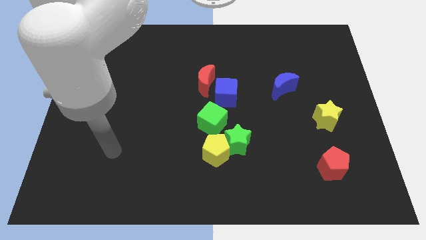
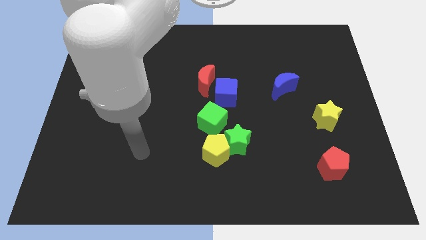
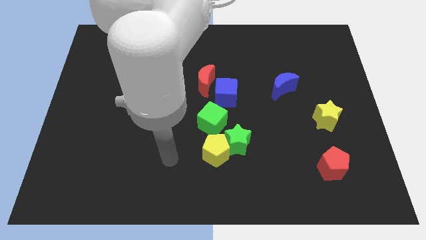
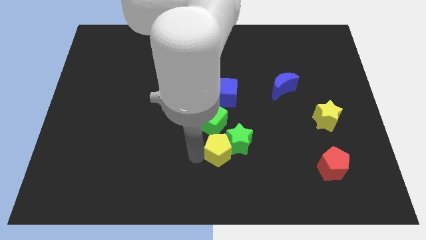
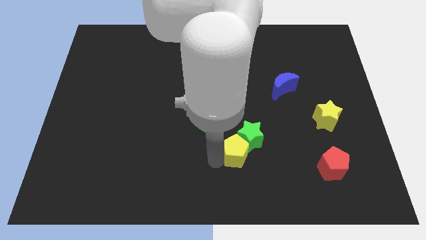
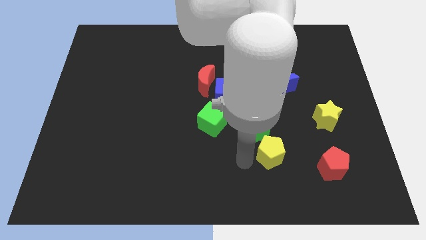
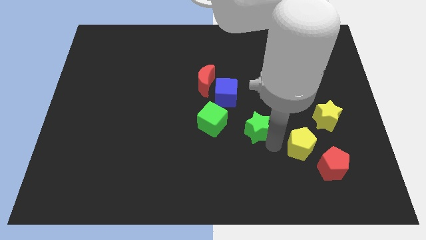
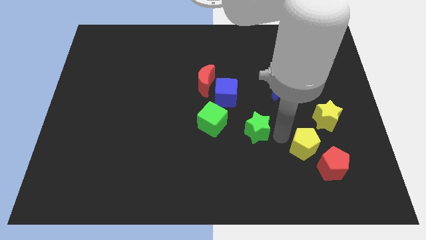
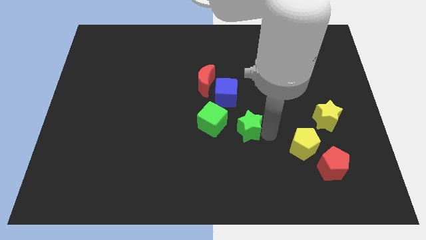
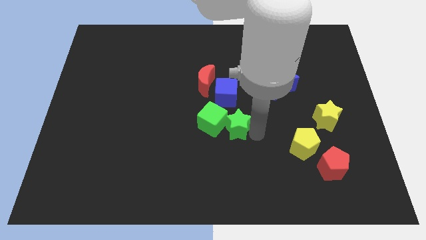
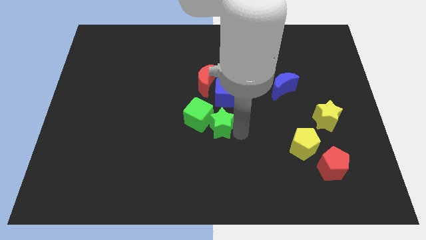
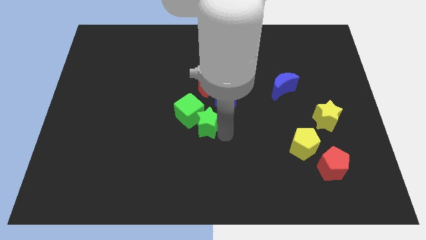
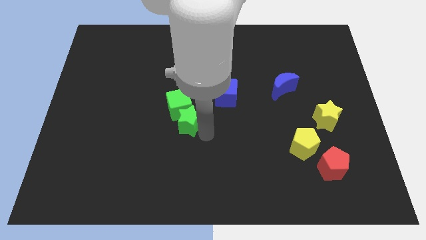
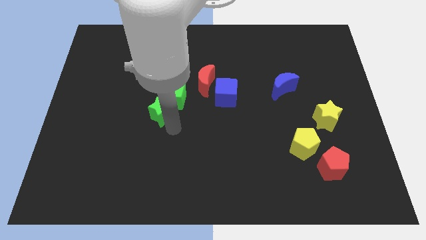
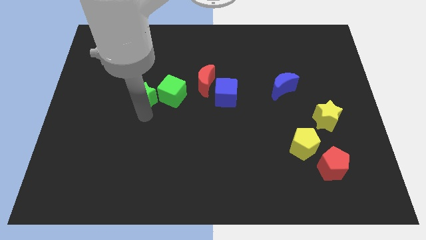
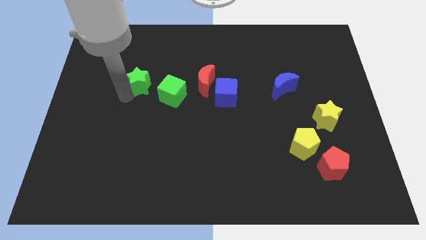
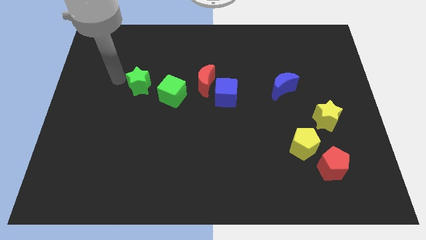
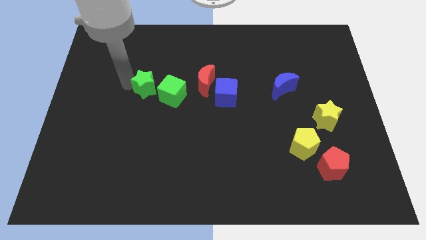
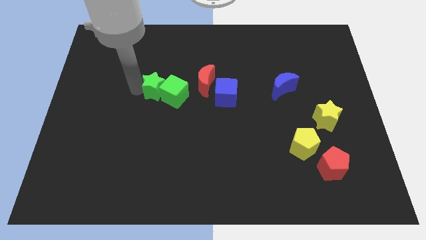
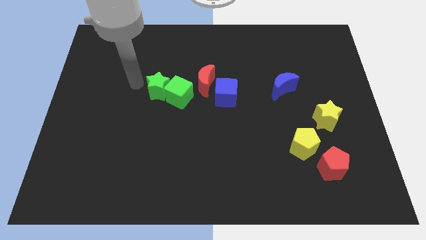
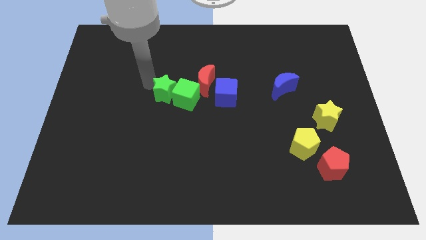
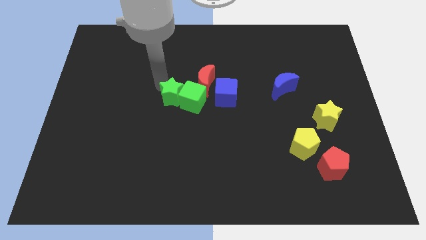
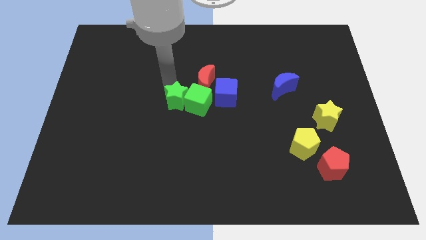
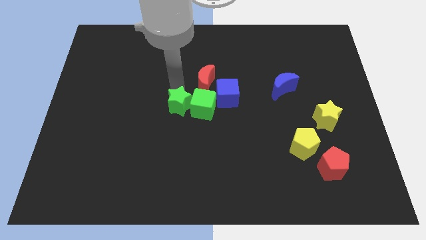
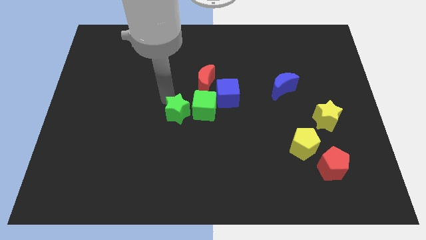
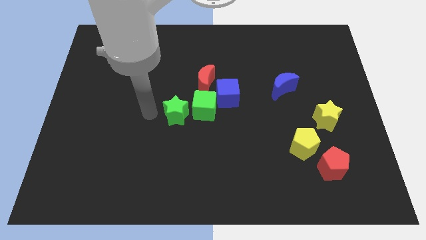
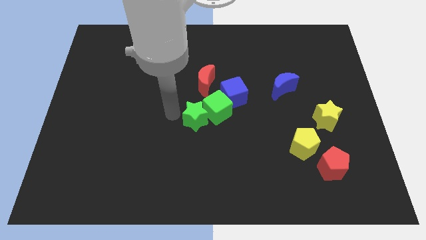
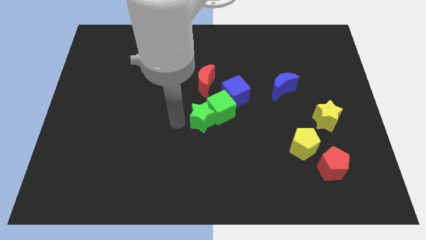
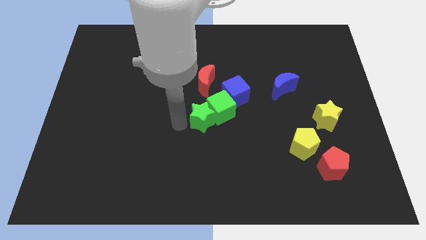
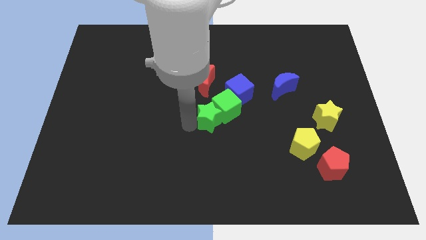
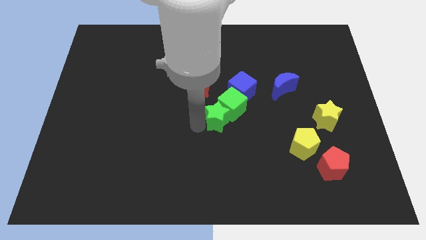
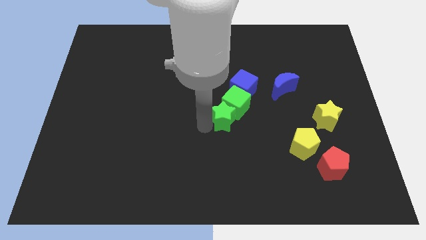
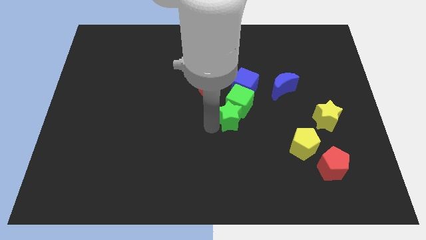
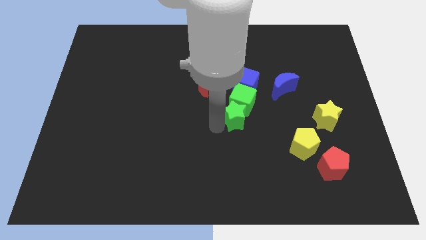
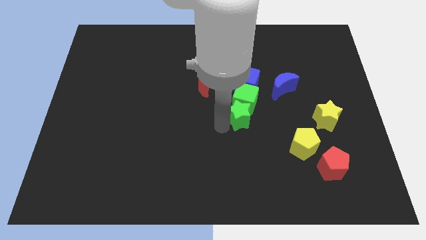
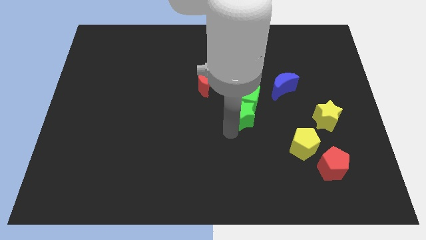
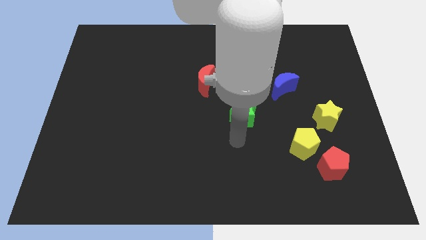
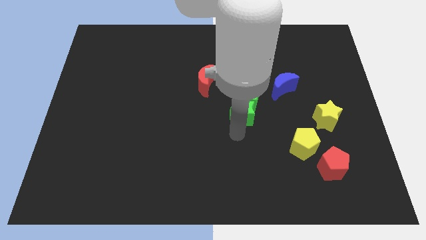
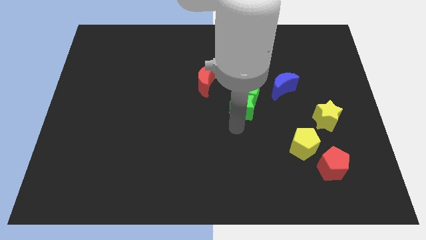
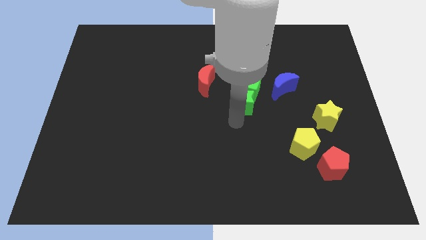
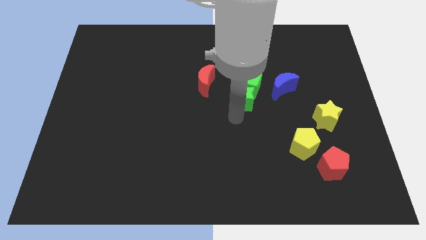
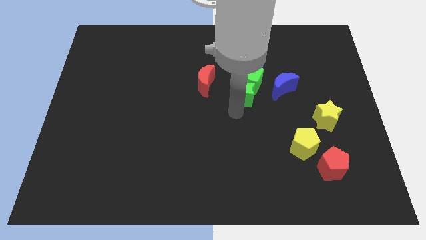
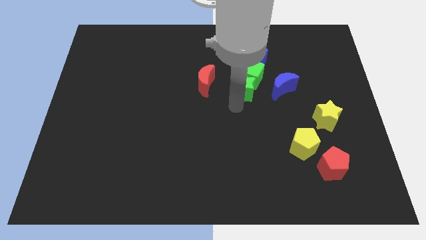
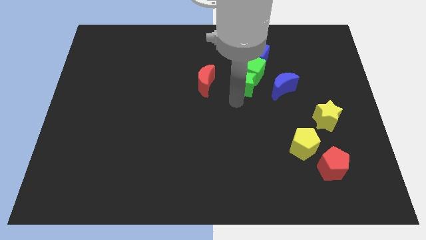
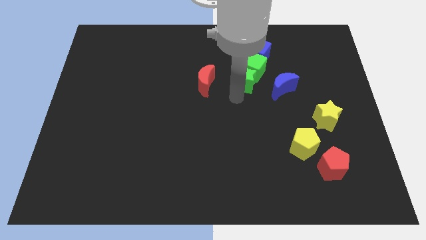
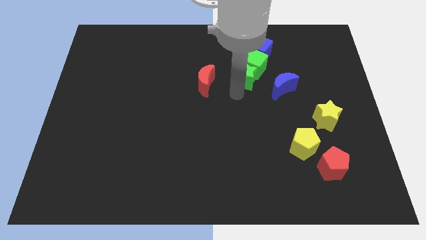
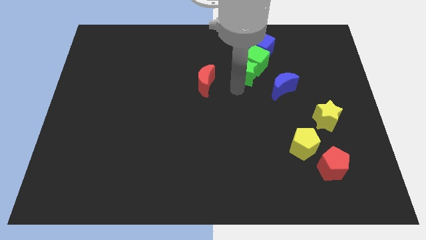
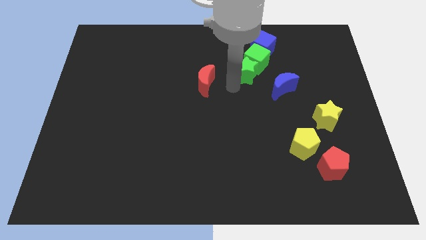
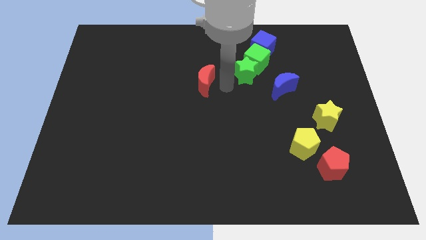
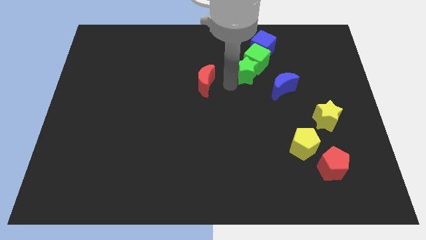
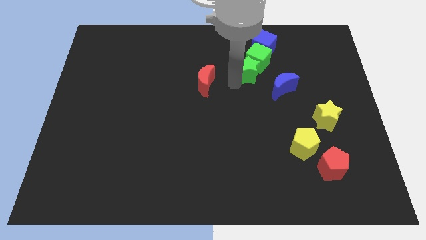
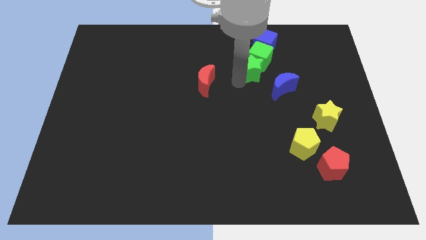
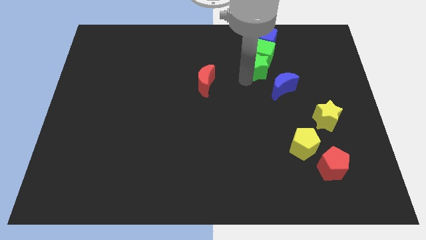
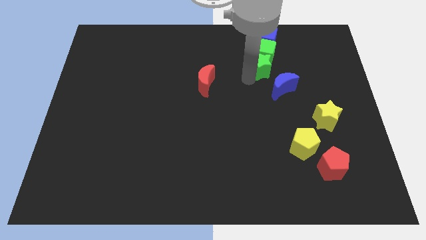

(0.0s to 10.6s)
push the green star to the top side of the blue moon

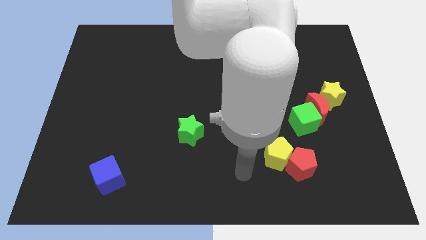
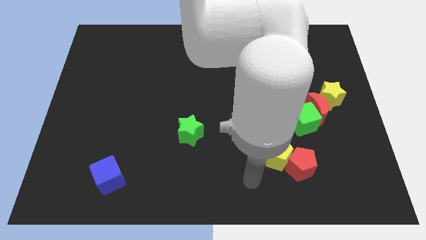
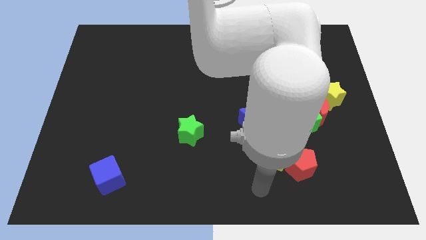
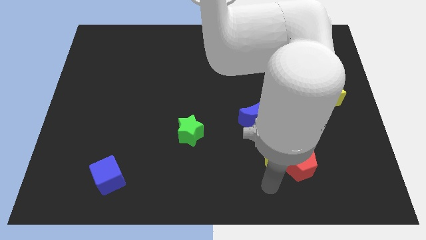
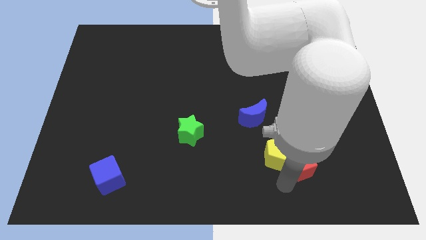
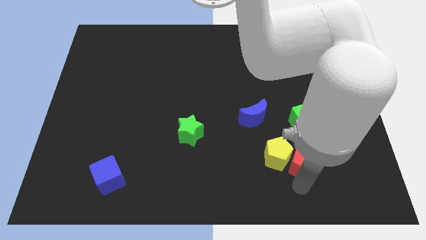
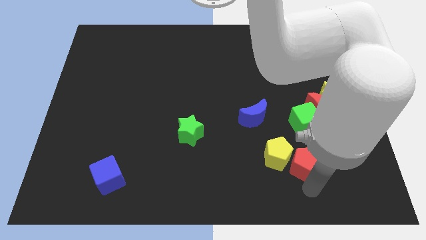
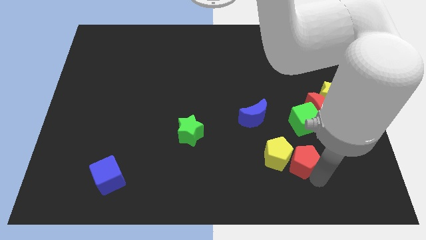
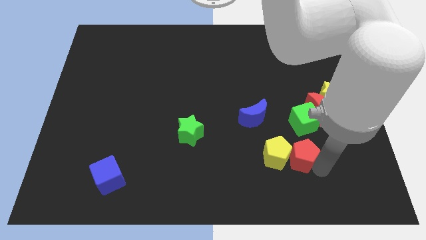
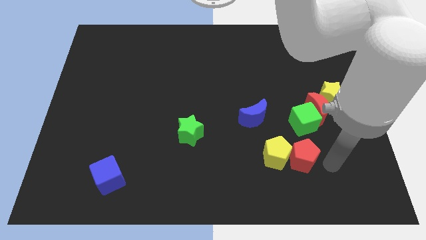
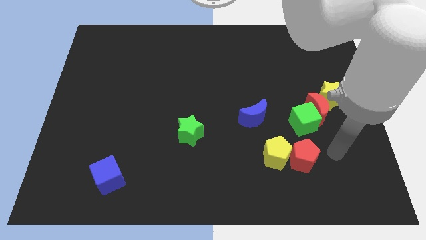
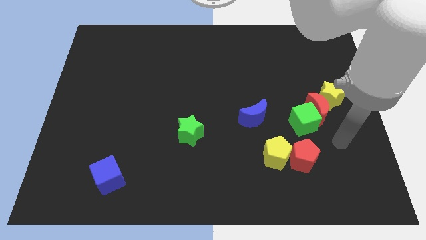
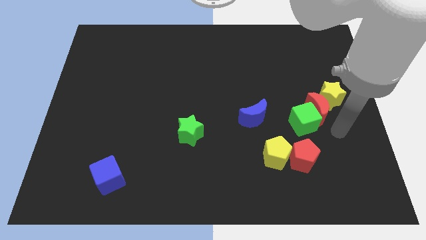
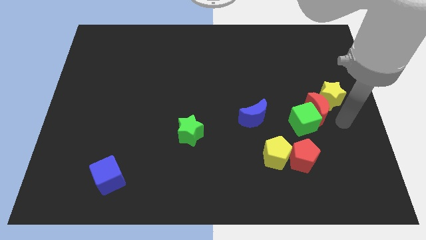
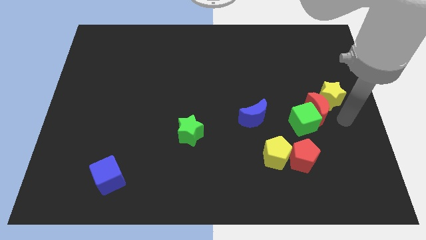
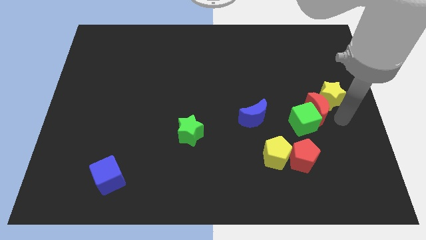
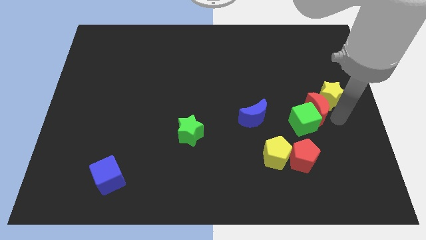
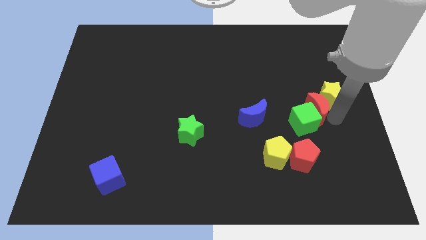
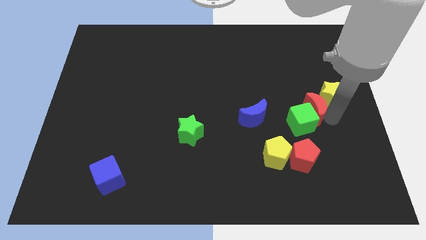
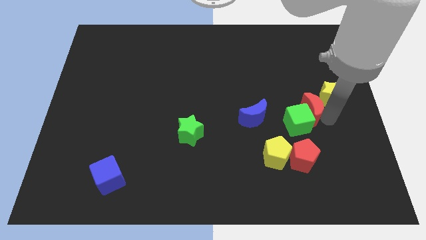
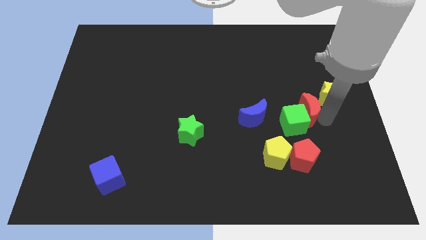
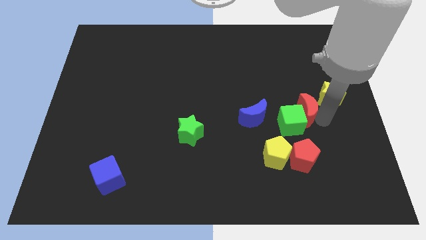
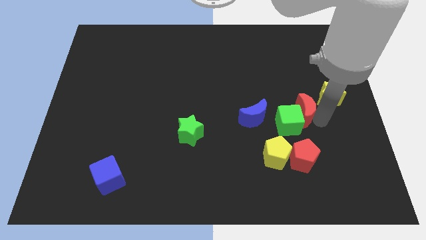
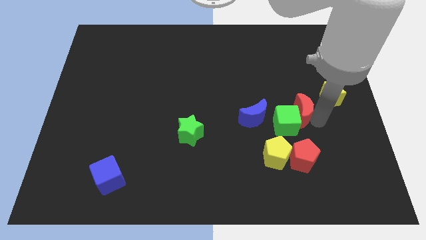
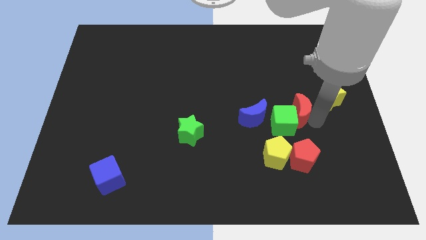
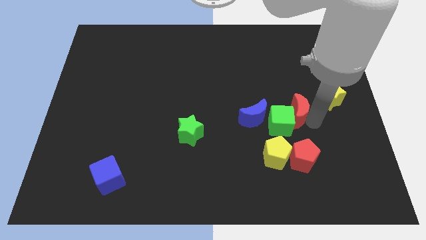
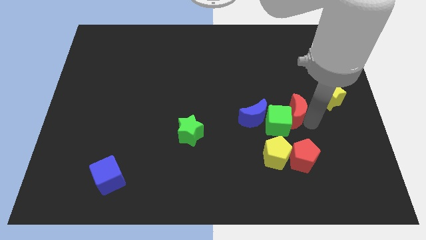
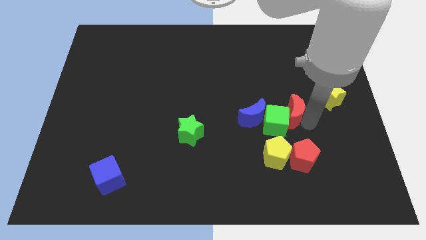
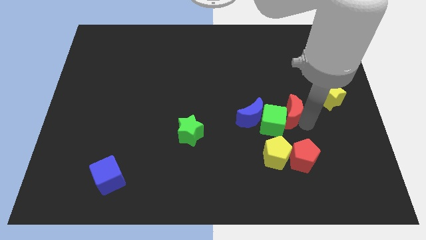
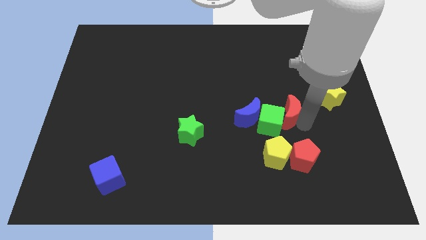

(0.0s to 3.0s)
slide the red moon to the top side of the yellow pentagon
